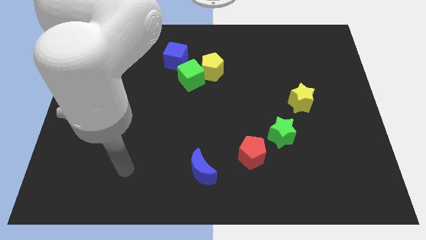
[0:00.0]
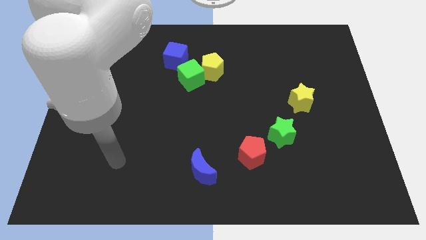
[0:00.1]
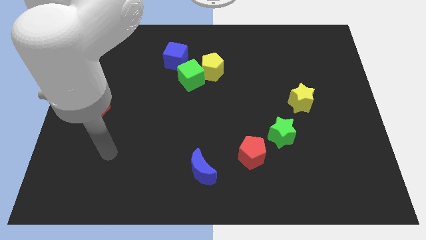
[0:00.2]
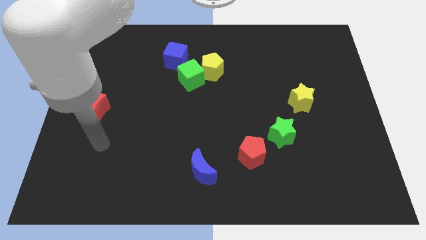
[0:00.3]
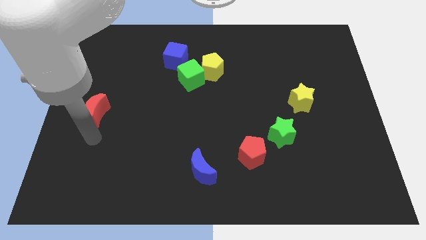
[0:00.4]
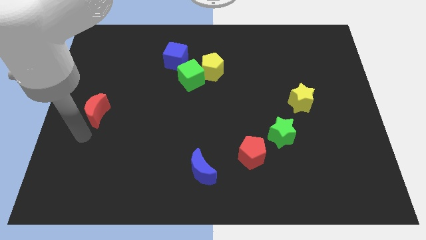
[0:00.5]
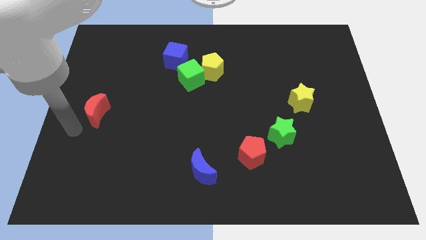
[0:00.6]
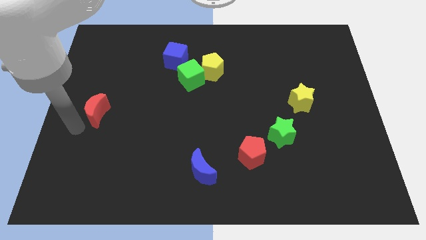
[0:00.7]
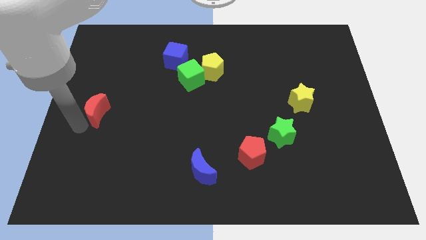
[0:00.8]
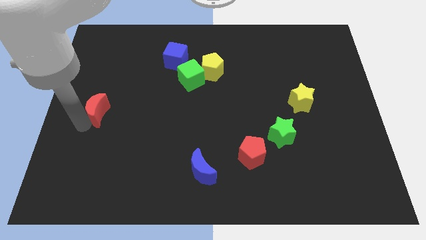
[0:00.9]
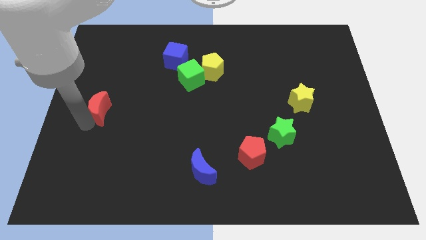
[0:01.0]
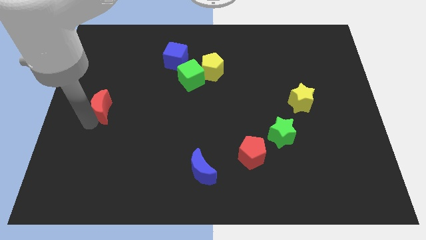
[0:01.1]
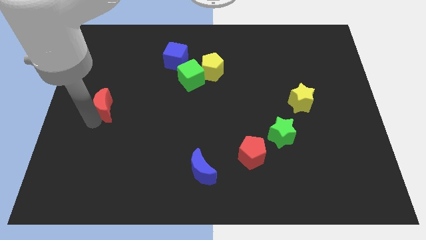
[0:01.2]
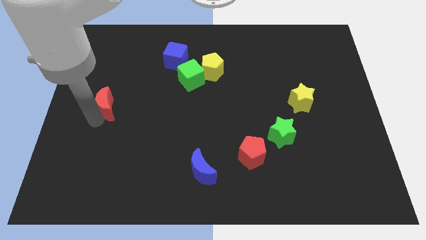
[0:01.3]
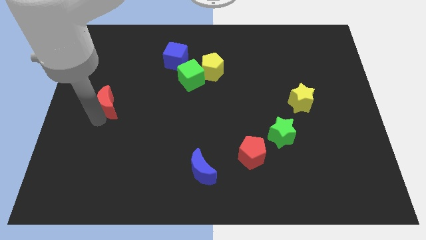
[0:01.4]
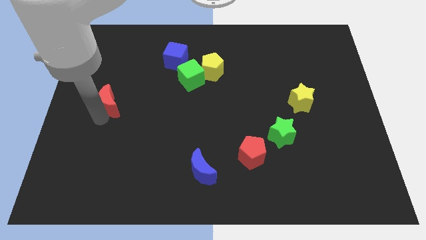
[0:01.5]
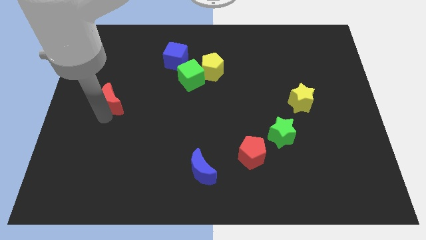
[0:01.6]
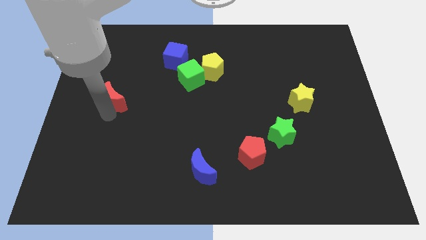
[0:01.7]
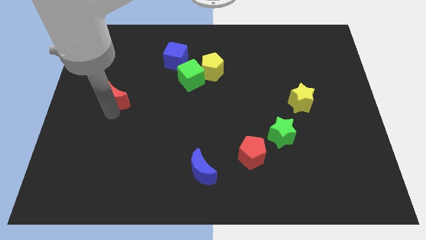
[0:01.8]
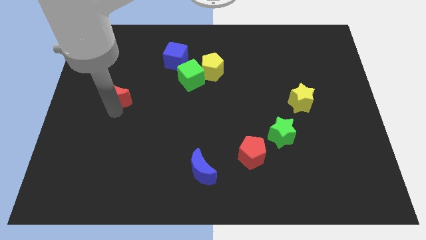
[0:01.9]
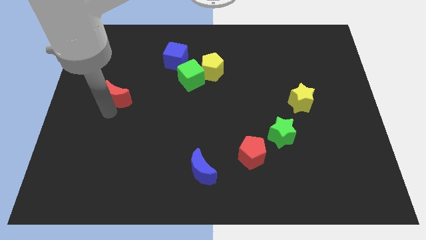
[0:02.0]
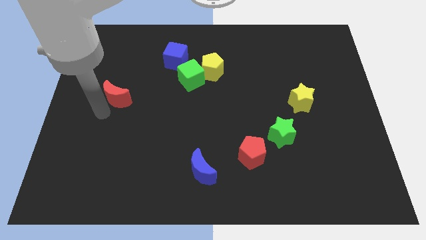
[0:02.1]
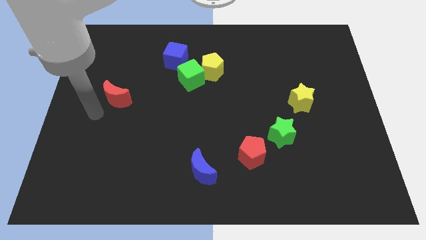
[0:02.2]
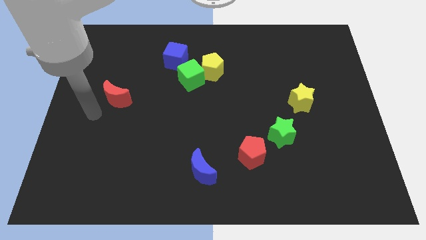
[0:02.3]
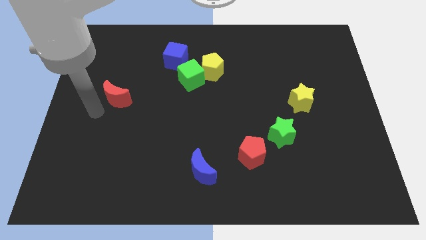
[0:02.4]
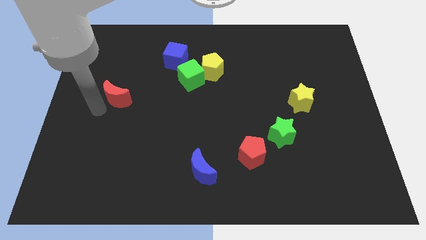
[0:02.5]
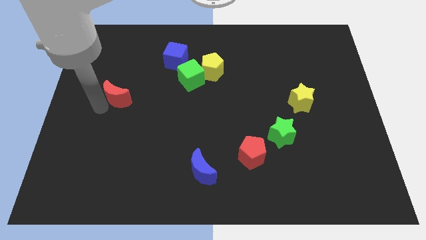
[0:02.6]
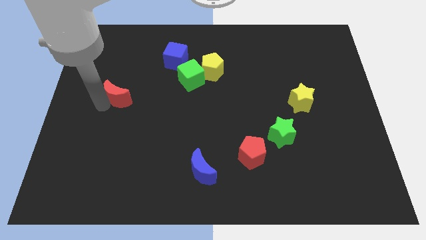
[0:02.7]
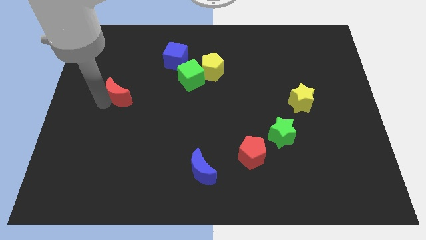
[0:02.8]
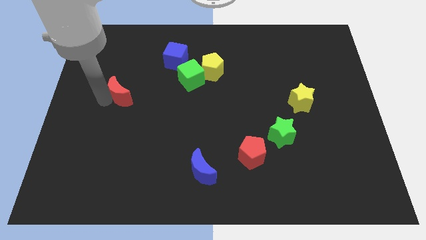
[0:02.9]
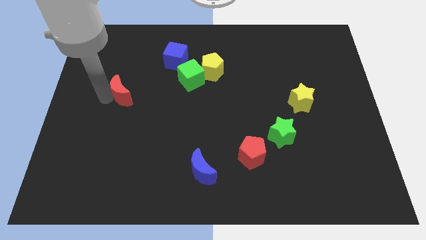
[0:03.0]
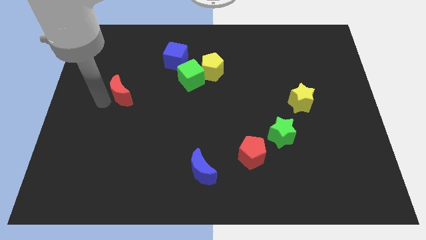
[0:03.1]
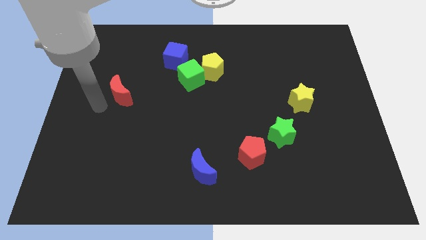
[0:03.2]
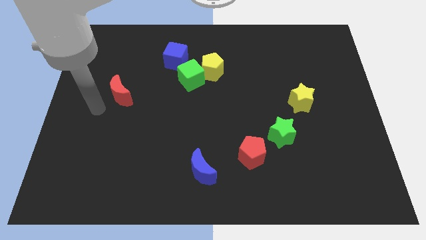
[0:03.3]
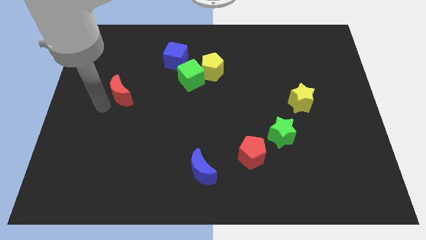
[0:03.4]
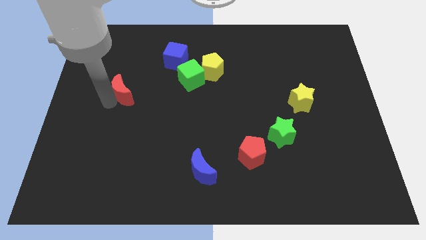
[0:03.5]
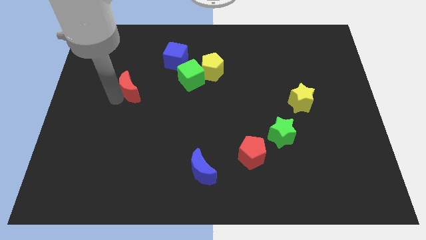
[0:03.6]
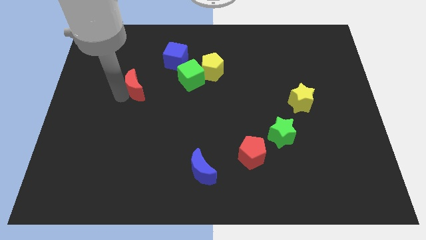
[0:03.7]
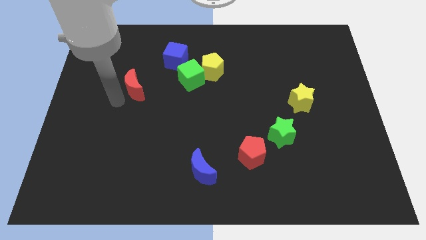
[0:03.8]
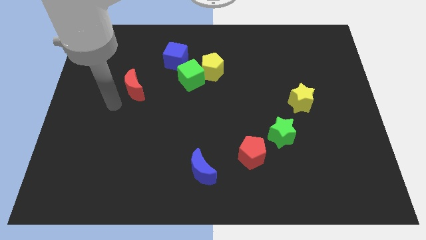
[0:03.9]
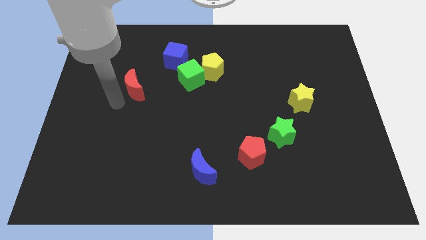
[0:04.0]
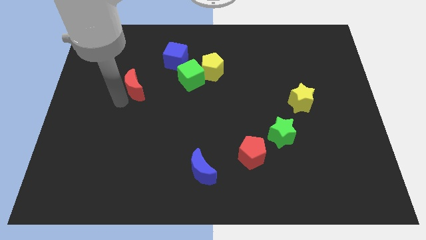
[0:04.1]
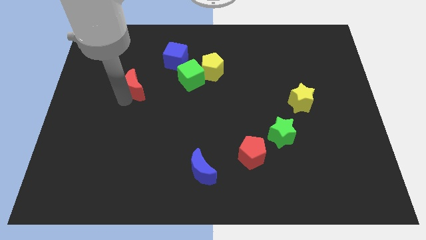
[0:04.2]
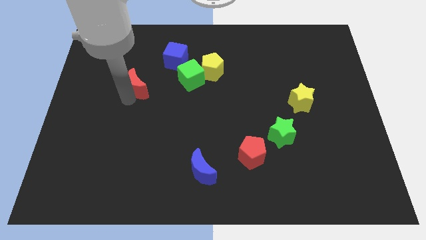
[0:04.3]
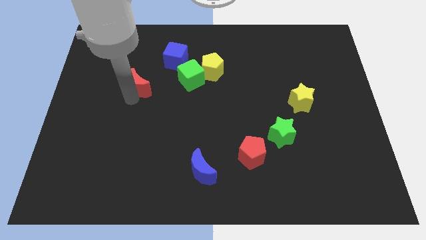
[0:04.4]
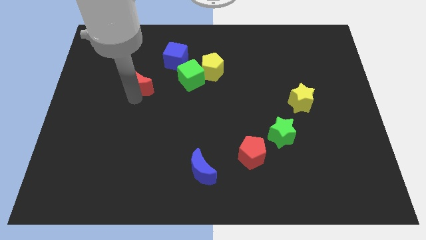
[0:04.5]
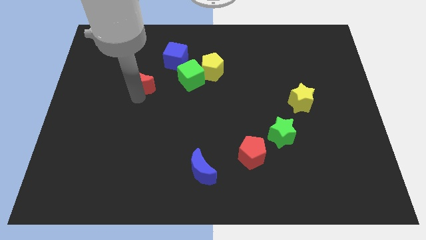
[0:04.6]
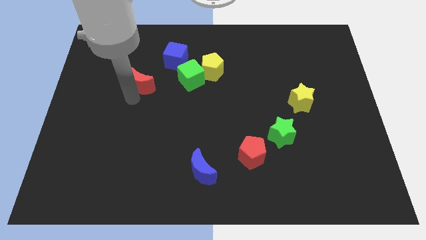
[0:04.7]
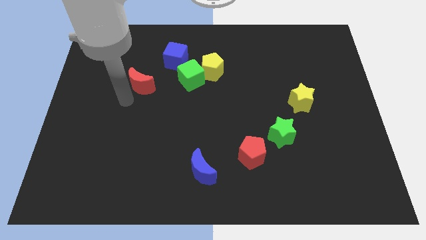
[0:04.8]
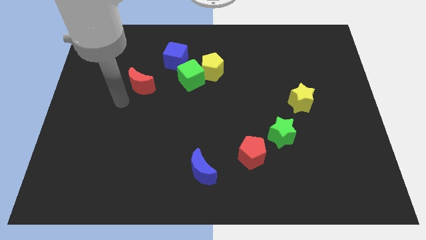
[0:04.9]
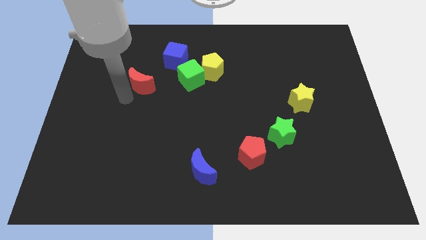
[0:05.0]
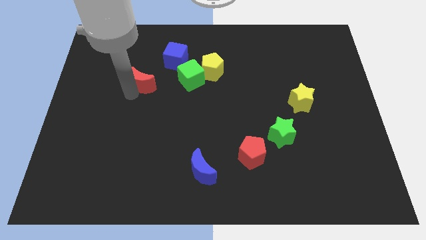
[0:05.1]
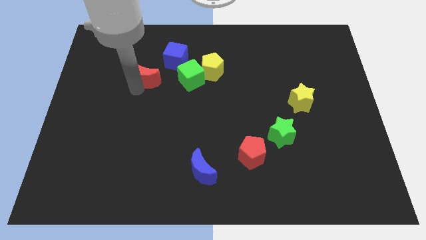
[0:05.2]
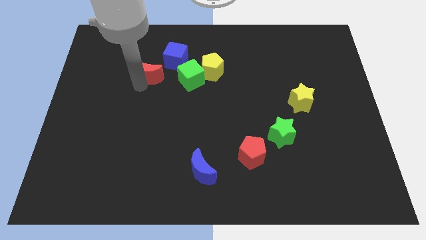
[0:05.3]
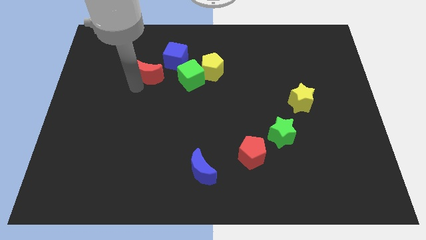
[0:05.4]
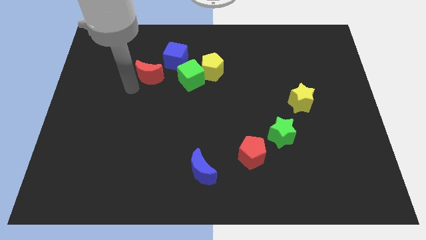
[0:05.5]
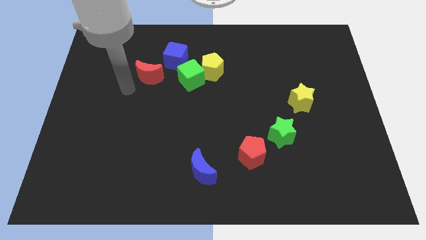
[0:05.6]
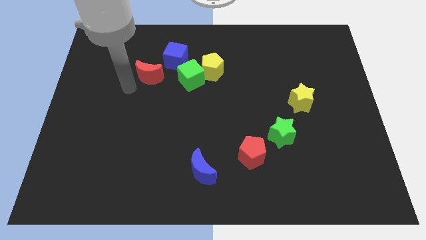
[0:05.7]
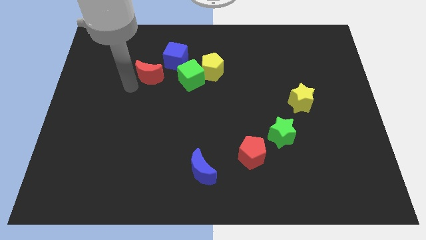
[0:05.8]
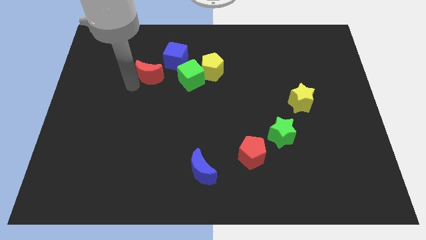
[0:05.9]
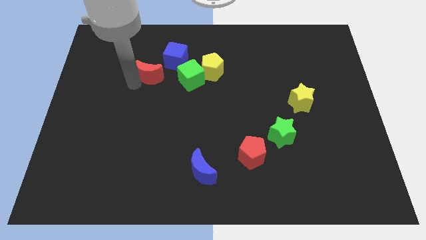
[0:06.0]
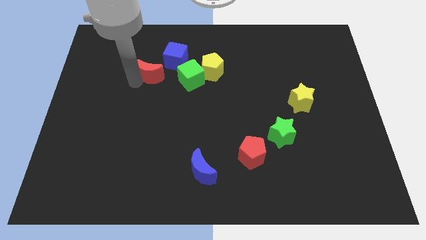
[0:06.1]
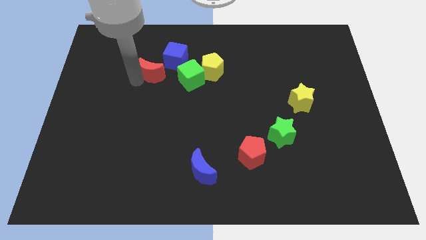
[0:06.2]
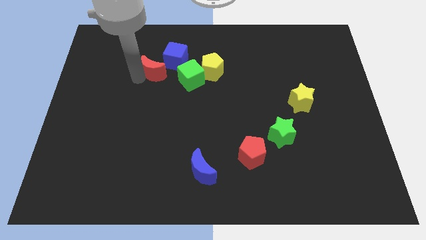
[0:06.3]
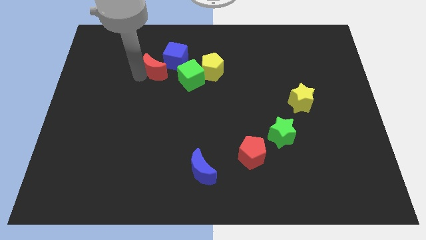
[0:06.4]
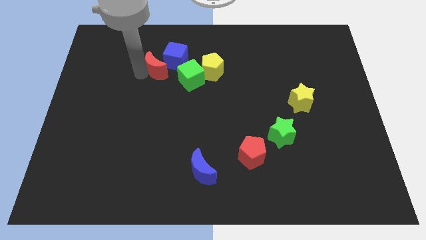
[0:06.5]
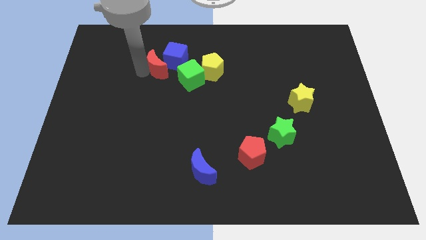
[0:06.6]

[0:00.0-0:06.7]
slide the red moon to the blue cube

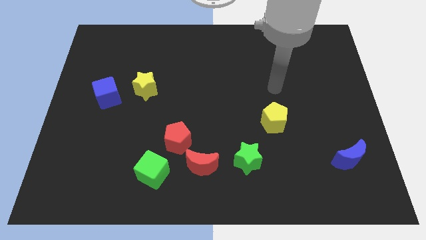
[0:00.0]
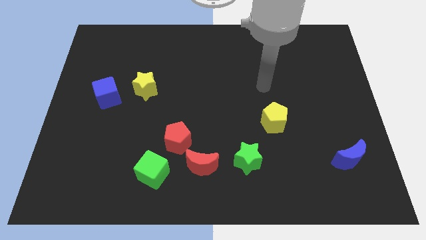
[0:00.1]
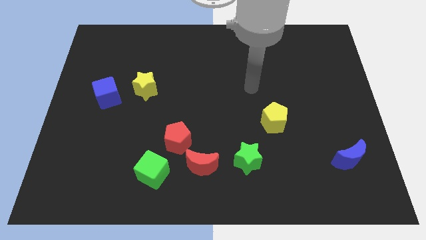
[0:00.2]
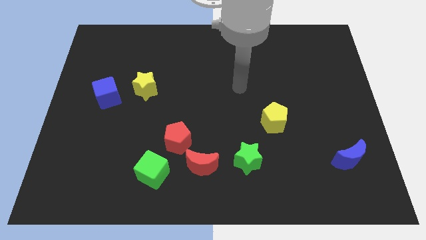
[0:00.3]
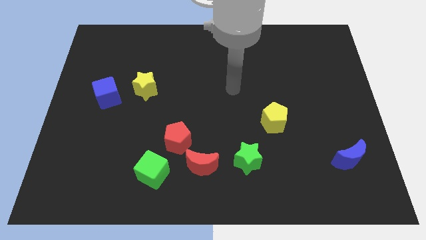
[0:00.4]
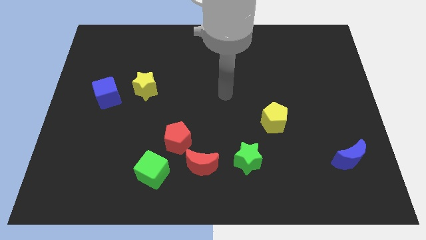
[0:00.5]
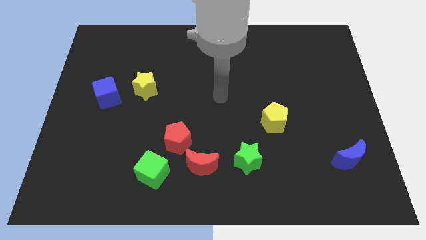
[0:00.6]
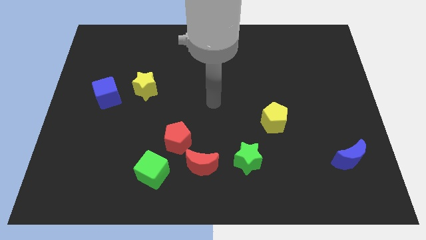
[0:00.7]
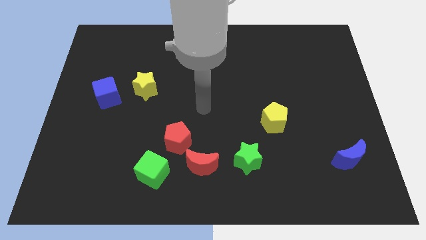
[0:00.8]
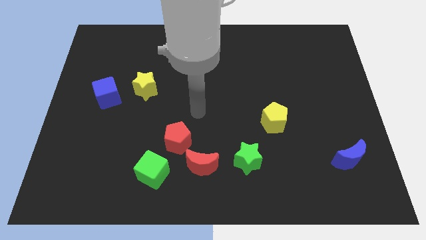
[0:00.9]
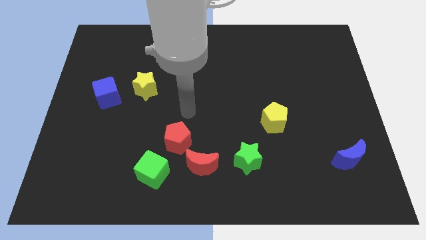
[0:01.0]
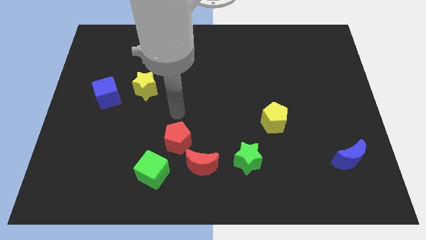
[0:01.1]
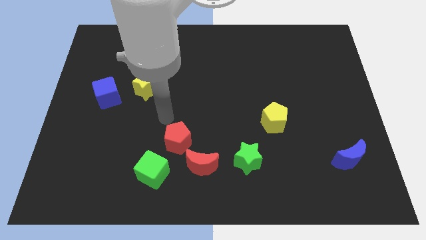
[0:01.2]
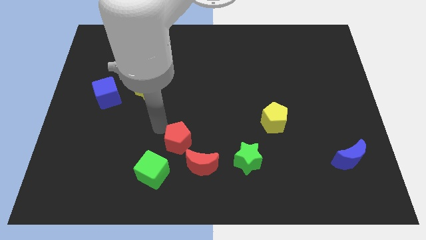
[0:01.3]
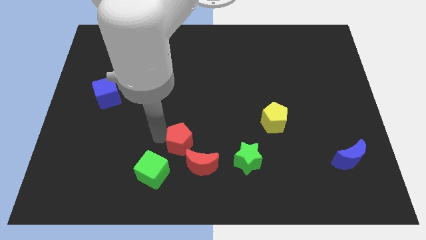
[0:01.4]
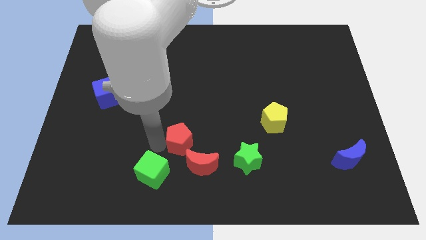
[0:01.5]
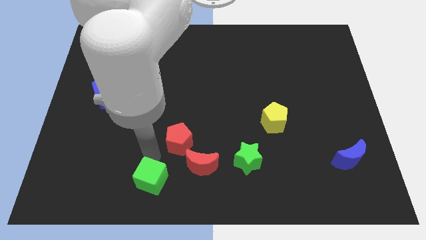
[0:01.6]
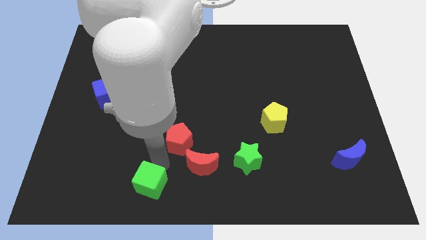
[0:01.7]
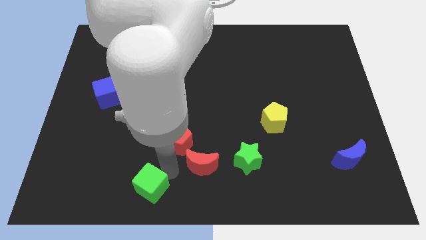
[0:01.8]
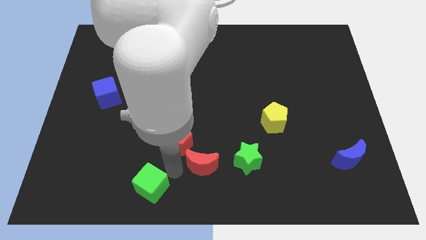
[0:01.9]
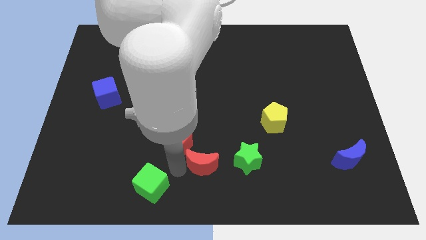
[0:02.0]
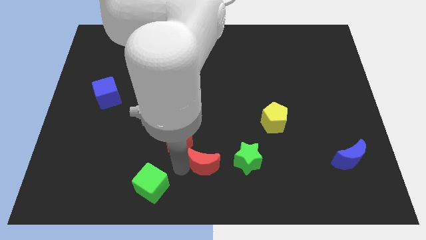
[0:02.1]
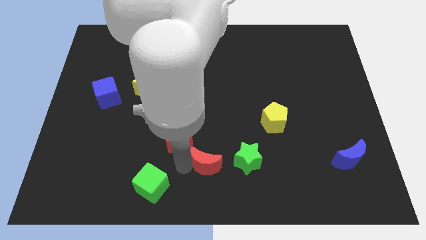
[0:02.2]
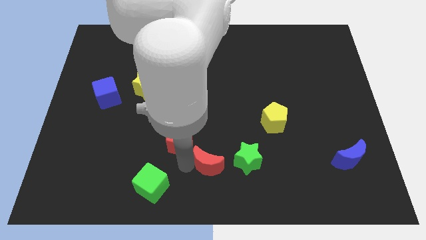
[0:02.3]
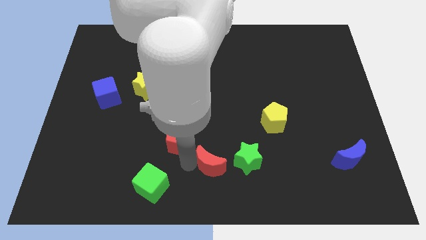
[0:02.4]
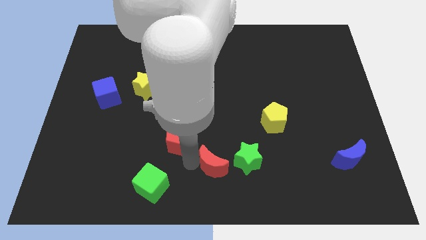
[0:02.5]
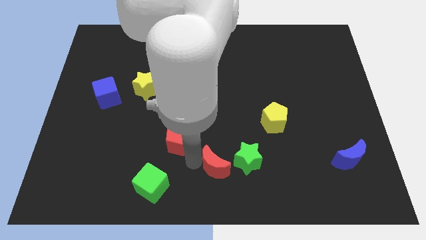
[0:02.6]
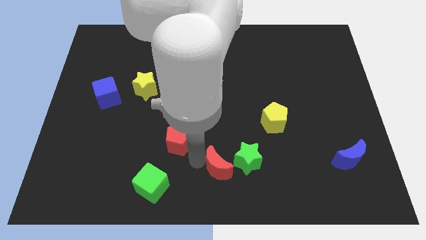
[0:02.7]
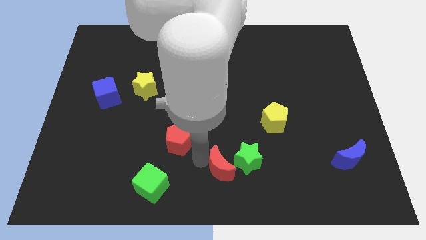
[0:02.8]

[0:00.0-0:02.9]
put the red moon close to the green star
